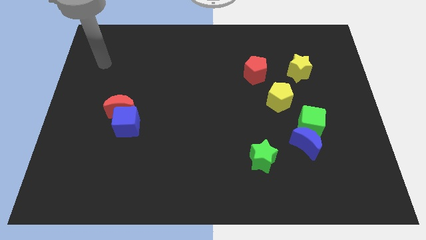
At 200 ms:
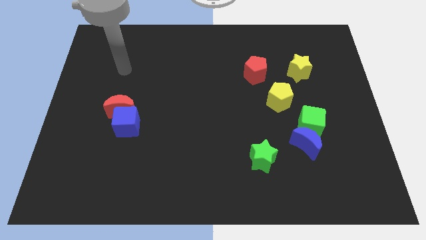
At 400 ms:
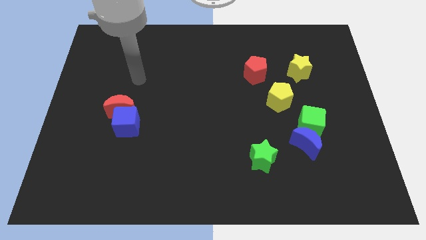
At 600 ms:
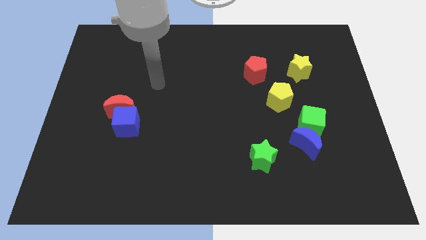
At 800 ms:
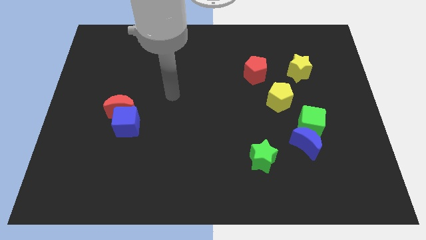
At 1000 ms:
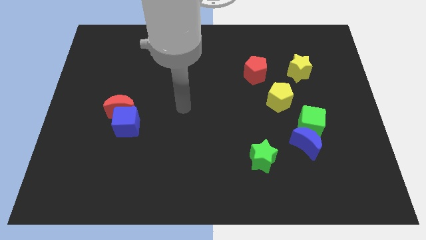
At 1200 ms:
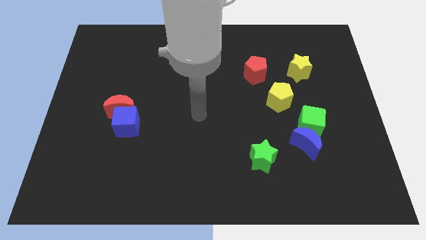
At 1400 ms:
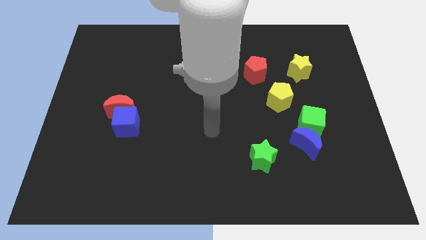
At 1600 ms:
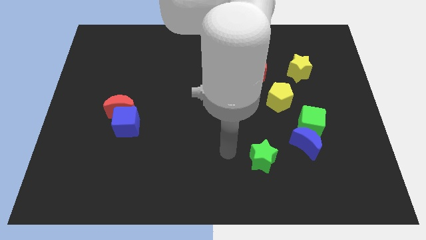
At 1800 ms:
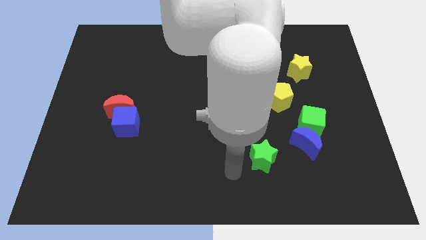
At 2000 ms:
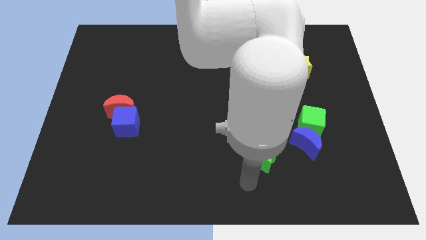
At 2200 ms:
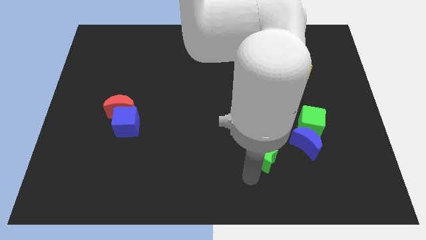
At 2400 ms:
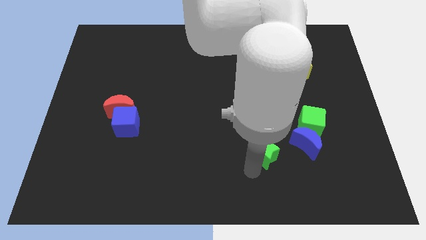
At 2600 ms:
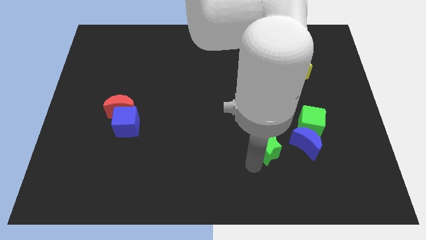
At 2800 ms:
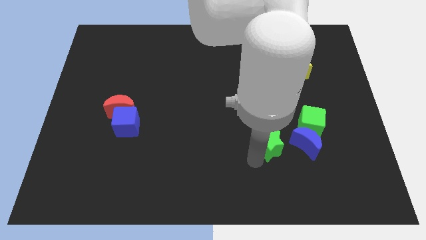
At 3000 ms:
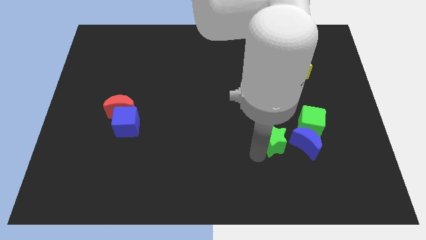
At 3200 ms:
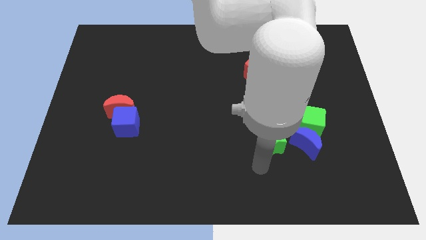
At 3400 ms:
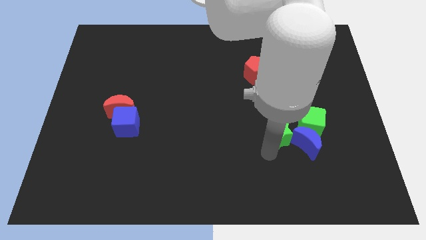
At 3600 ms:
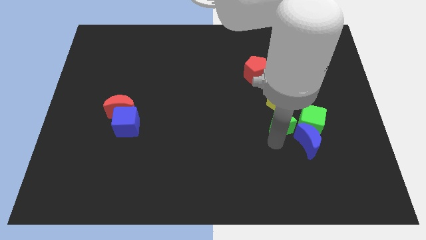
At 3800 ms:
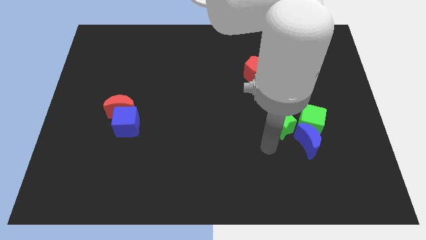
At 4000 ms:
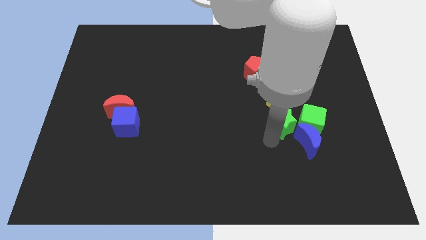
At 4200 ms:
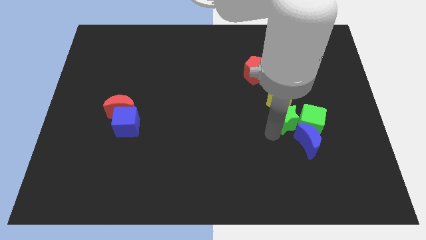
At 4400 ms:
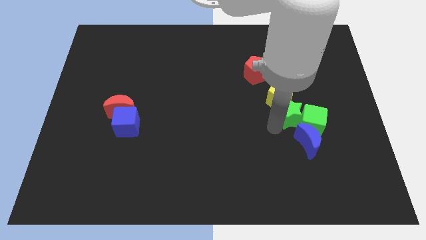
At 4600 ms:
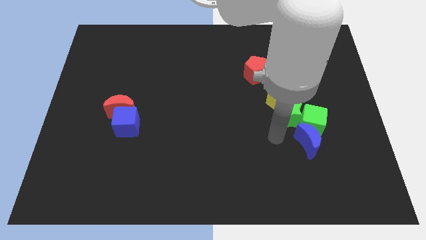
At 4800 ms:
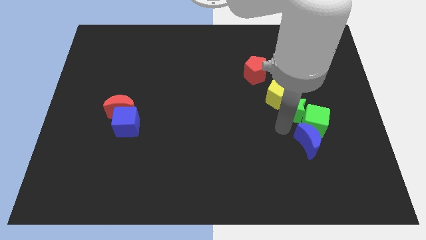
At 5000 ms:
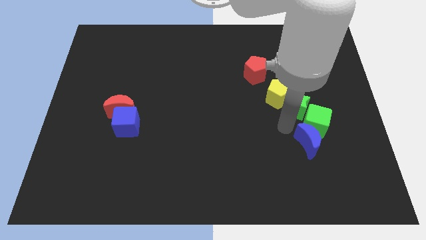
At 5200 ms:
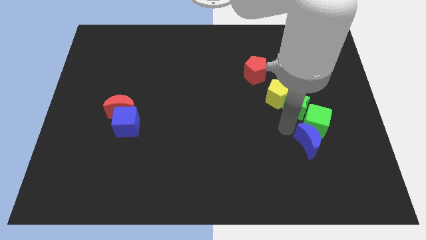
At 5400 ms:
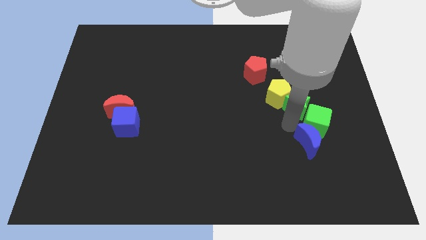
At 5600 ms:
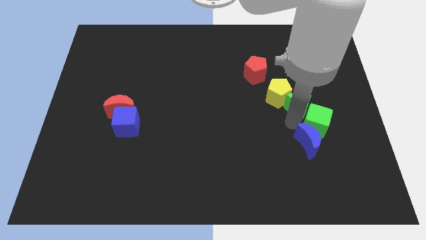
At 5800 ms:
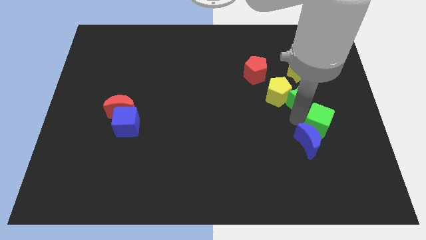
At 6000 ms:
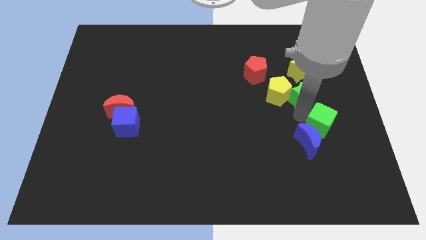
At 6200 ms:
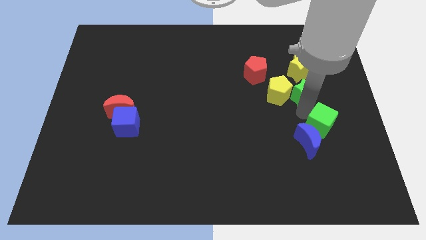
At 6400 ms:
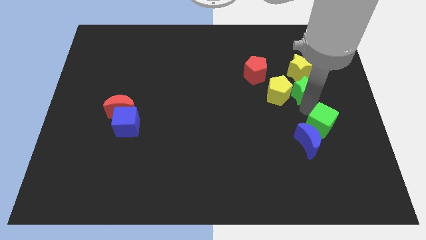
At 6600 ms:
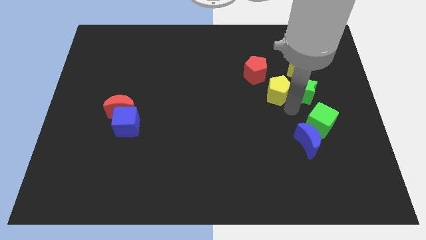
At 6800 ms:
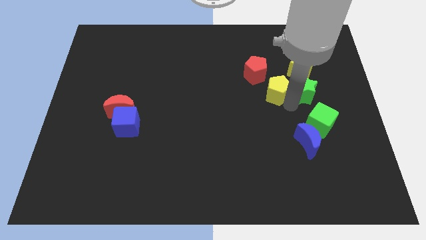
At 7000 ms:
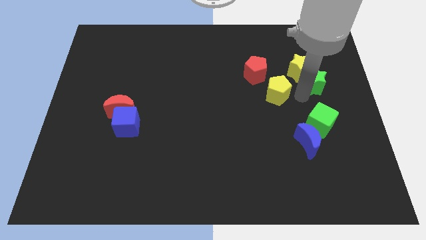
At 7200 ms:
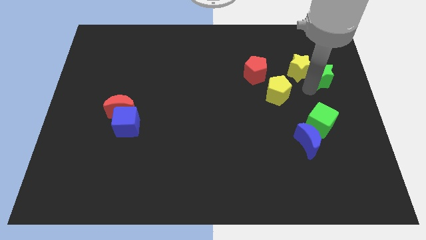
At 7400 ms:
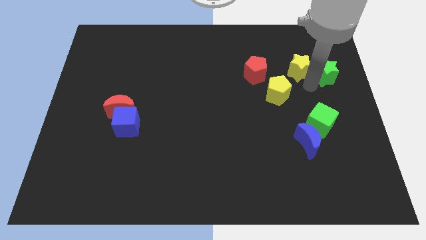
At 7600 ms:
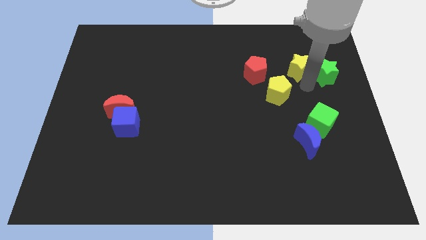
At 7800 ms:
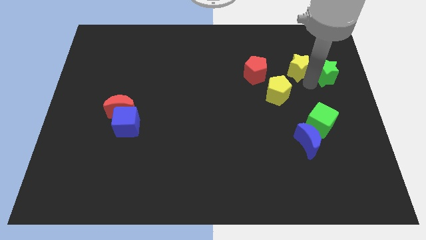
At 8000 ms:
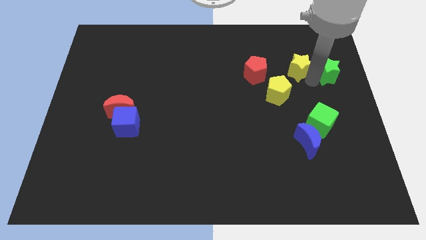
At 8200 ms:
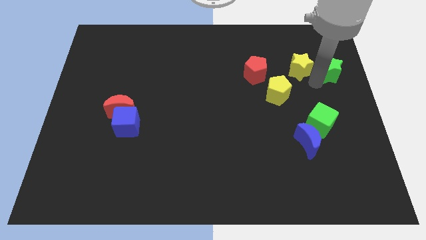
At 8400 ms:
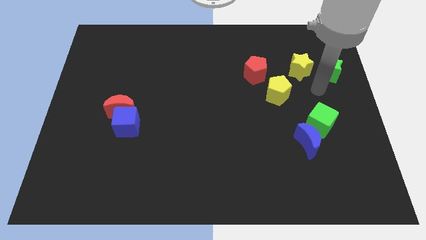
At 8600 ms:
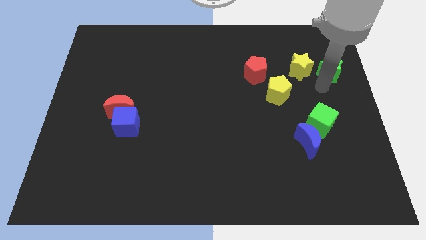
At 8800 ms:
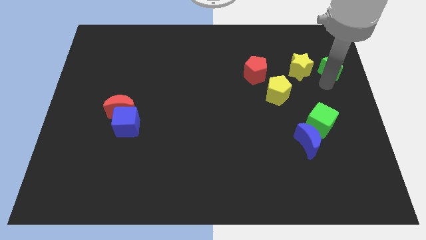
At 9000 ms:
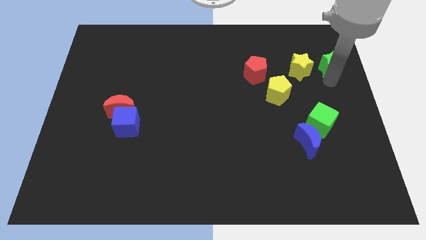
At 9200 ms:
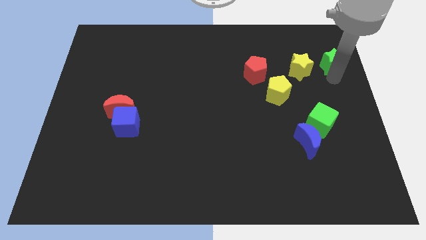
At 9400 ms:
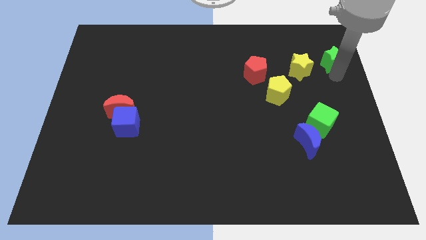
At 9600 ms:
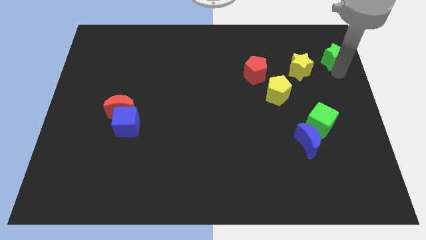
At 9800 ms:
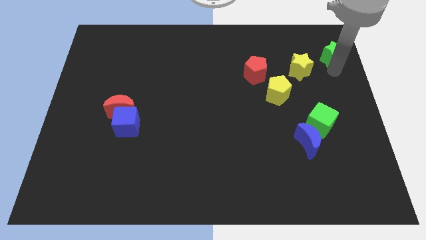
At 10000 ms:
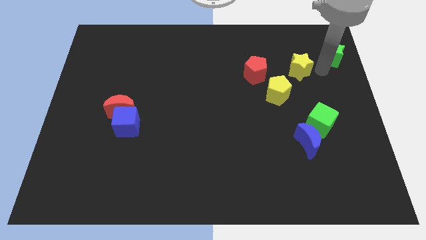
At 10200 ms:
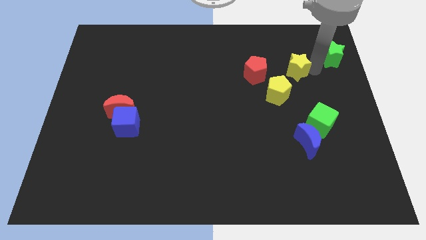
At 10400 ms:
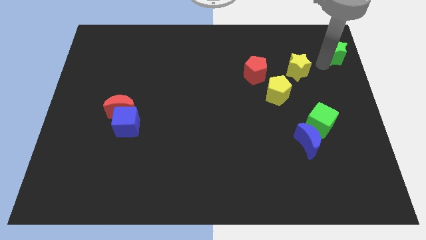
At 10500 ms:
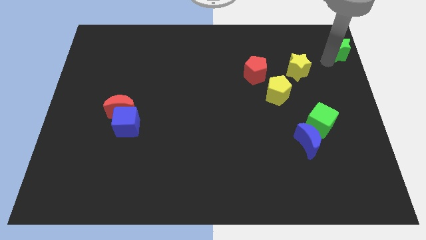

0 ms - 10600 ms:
slide the green star to the upper right corner

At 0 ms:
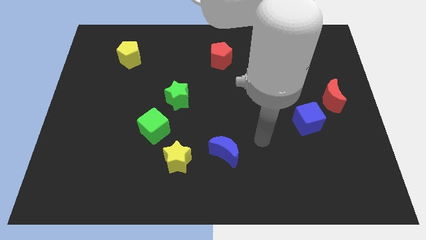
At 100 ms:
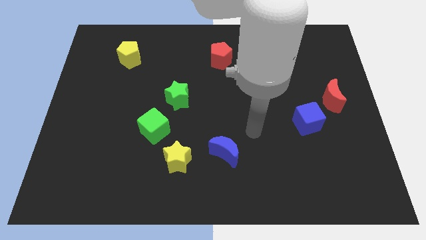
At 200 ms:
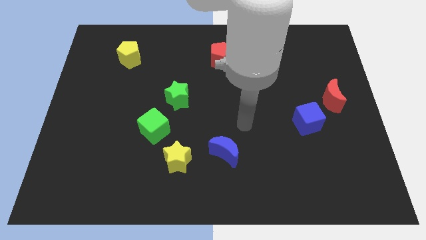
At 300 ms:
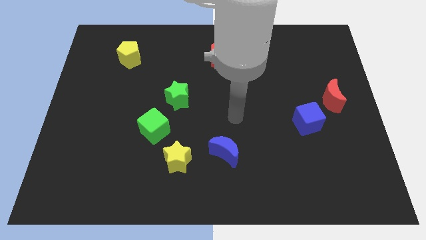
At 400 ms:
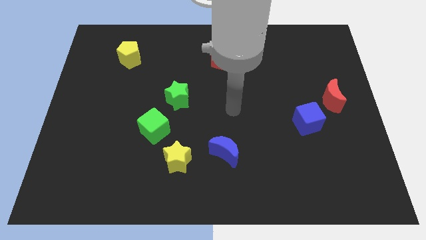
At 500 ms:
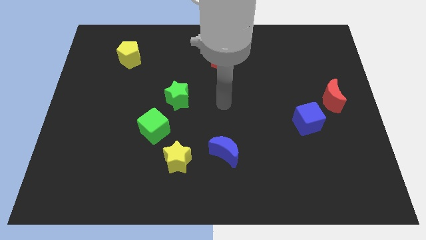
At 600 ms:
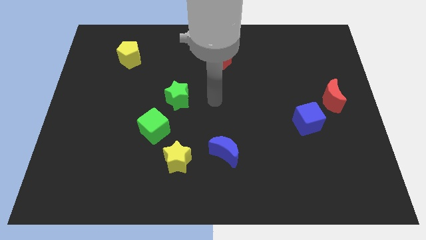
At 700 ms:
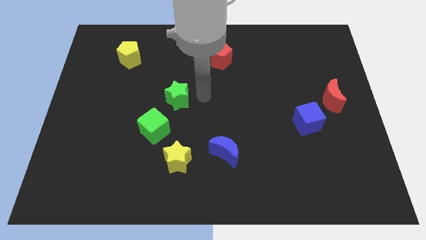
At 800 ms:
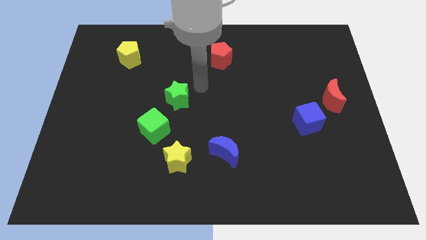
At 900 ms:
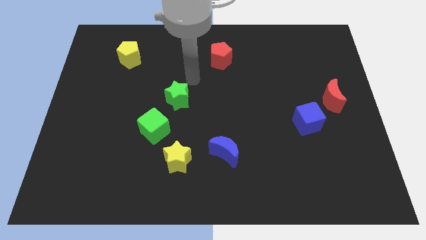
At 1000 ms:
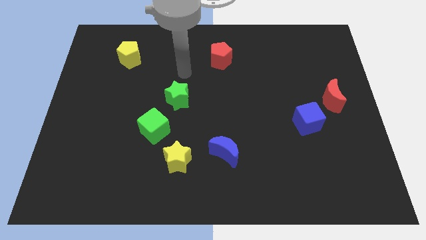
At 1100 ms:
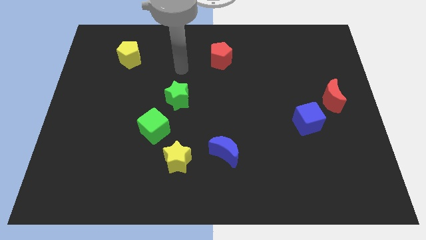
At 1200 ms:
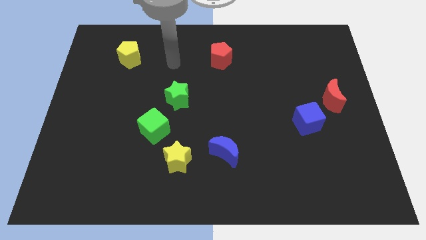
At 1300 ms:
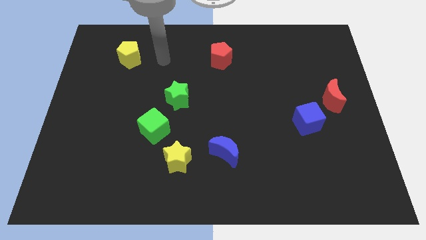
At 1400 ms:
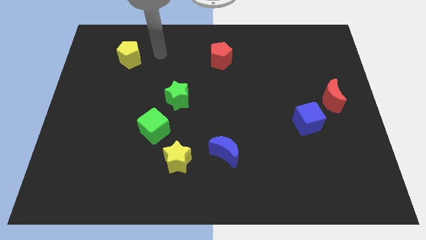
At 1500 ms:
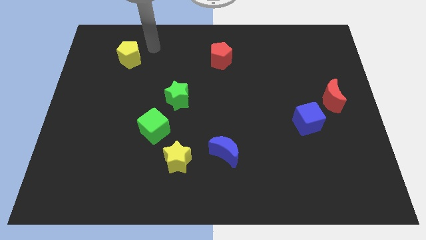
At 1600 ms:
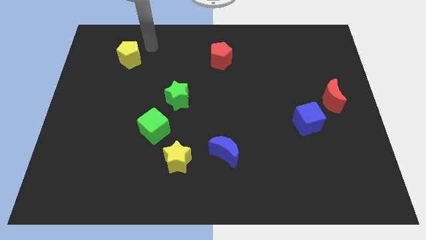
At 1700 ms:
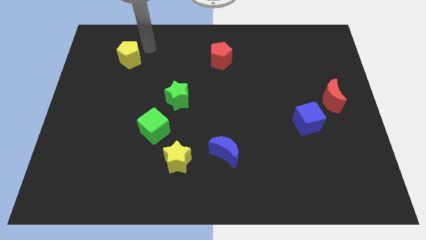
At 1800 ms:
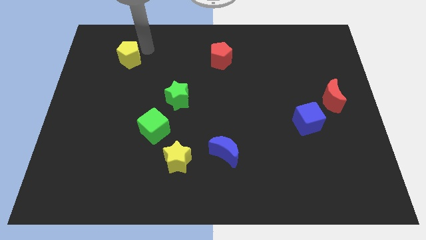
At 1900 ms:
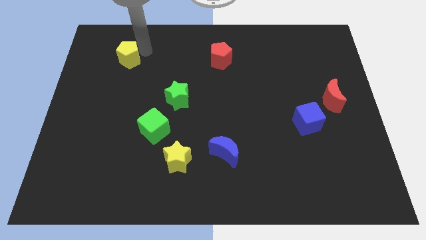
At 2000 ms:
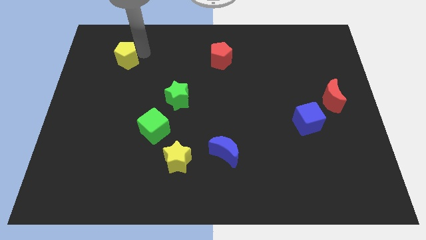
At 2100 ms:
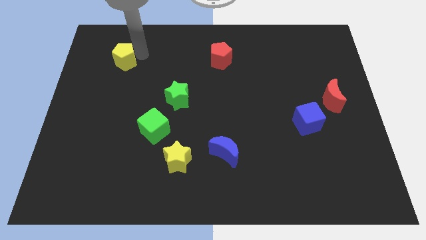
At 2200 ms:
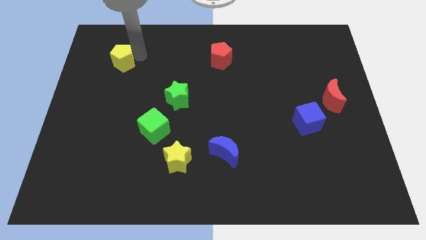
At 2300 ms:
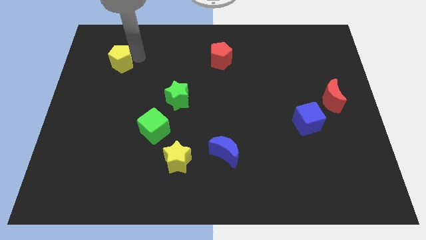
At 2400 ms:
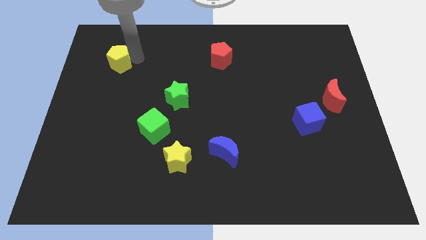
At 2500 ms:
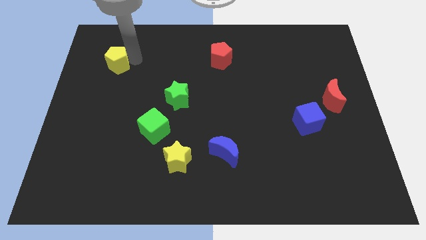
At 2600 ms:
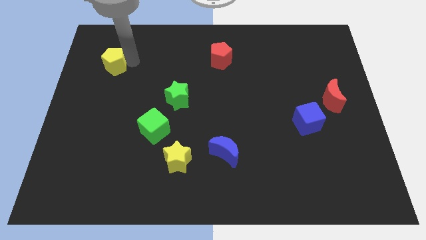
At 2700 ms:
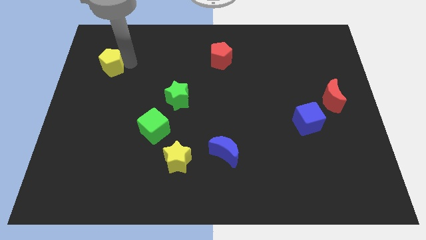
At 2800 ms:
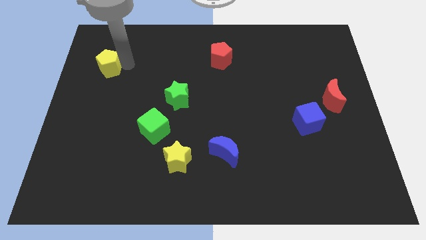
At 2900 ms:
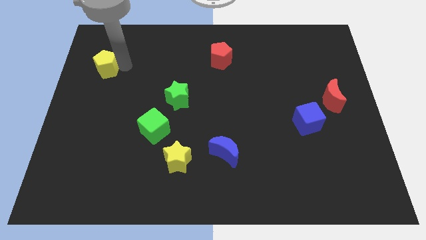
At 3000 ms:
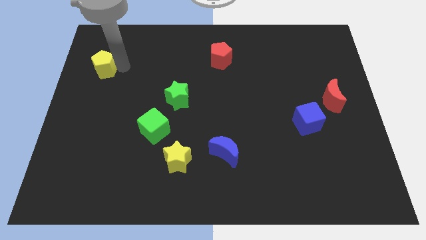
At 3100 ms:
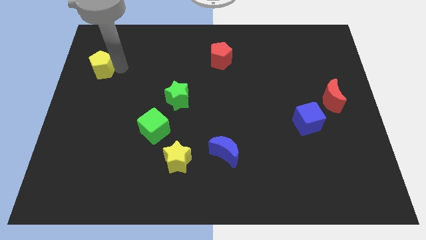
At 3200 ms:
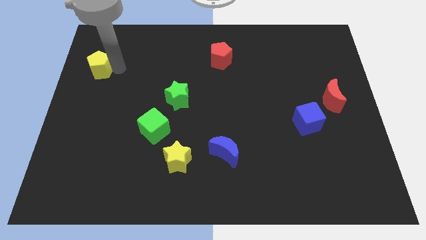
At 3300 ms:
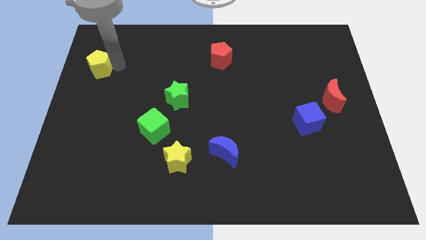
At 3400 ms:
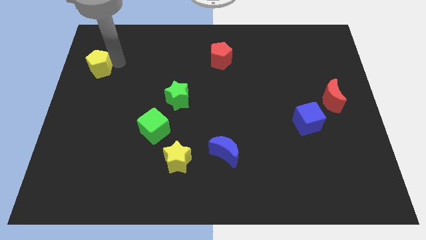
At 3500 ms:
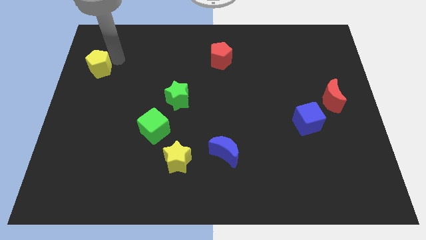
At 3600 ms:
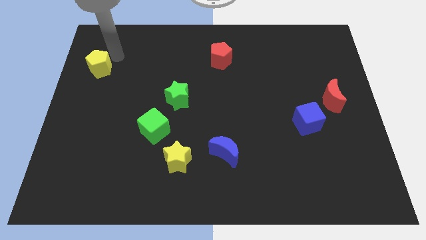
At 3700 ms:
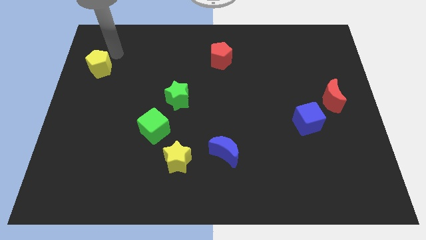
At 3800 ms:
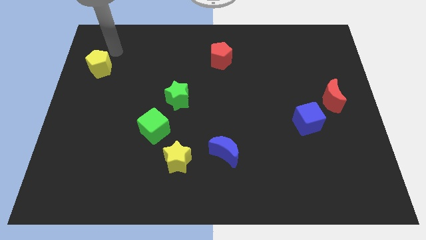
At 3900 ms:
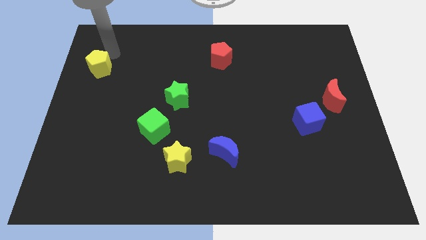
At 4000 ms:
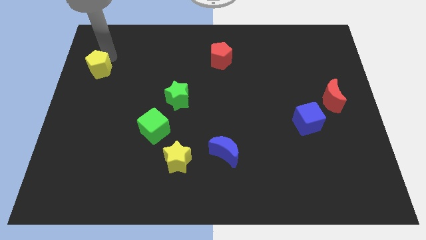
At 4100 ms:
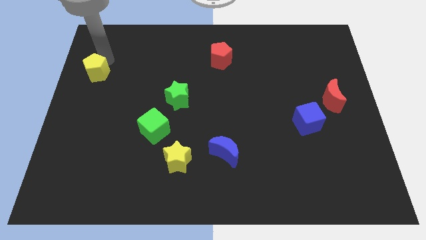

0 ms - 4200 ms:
slide the yellow pentagon to the left side
